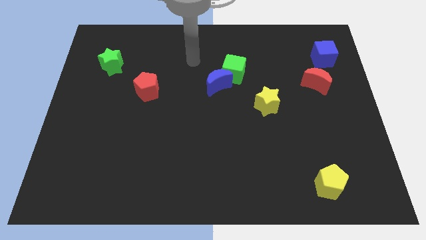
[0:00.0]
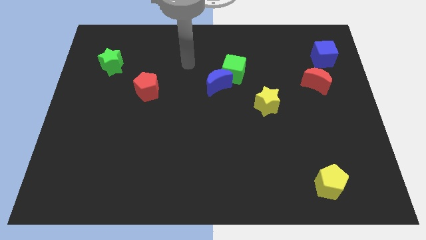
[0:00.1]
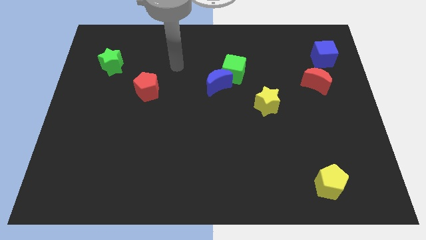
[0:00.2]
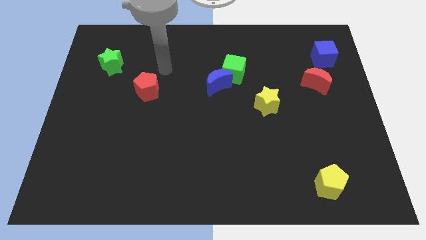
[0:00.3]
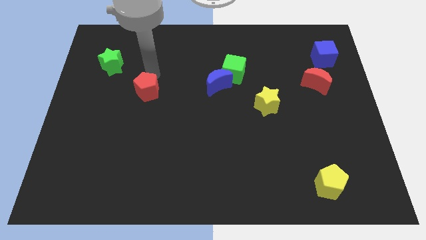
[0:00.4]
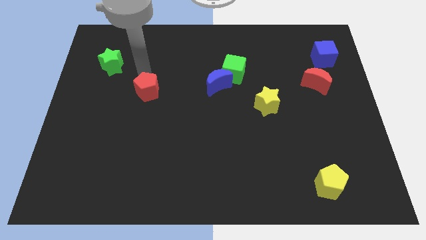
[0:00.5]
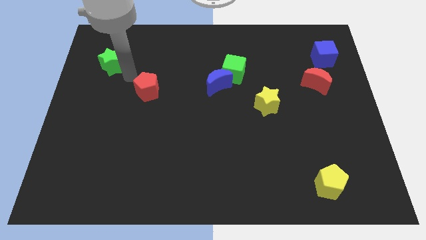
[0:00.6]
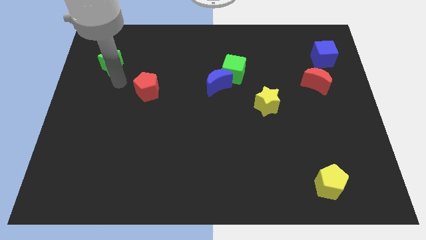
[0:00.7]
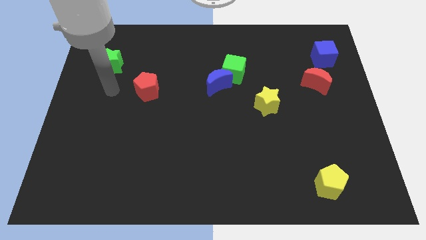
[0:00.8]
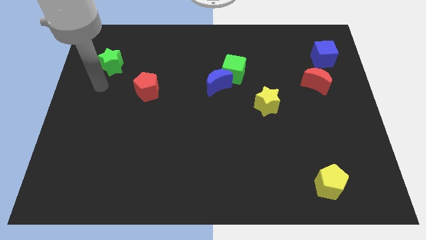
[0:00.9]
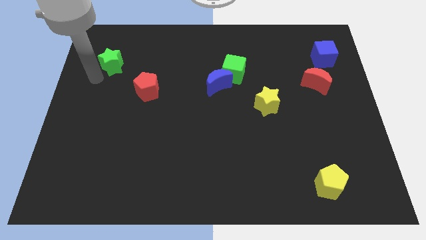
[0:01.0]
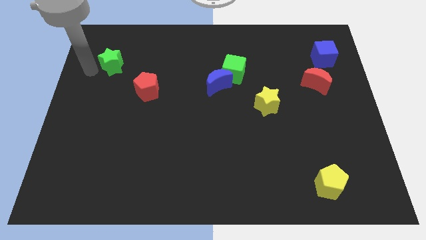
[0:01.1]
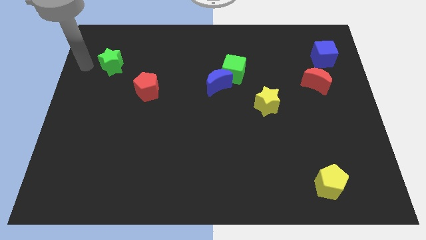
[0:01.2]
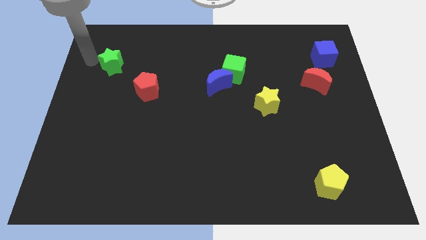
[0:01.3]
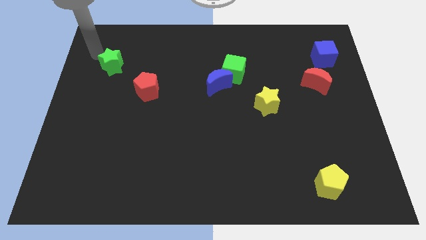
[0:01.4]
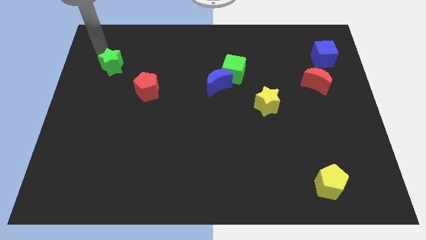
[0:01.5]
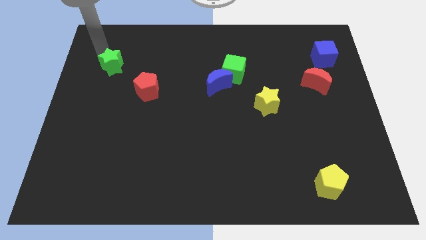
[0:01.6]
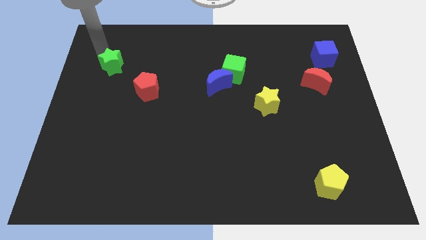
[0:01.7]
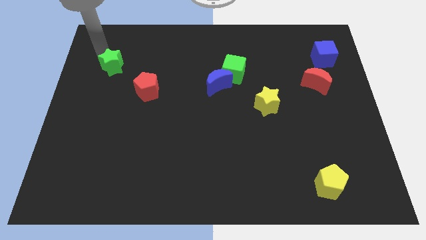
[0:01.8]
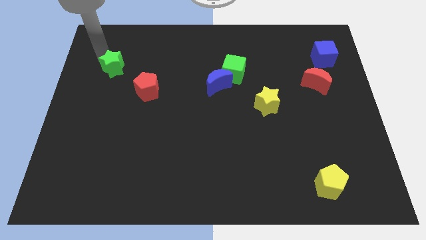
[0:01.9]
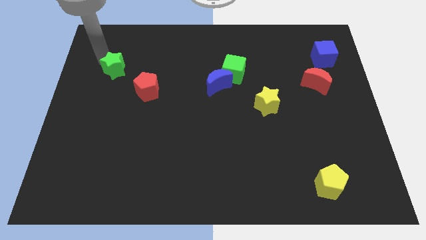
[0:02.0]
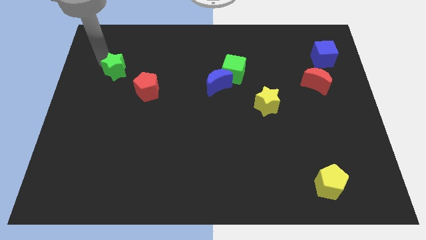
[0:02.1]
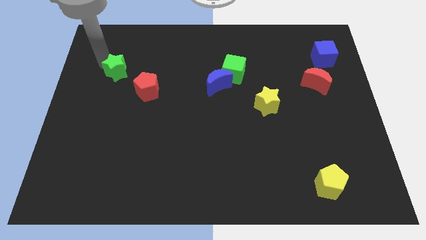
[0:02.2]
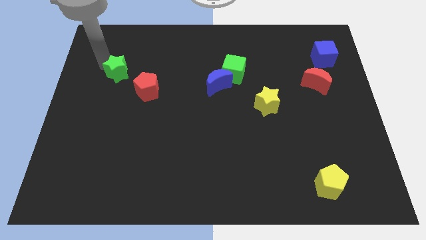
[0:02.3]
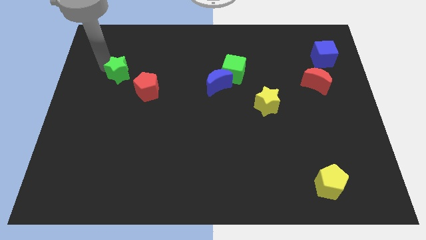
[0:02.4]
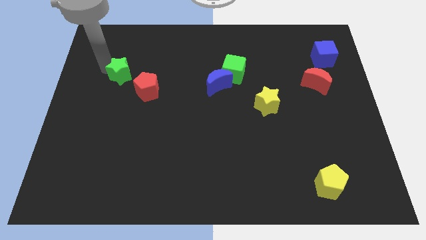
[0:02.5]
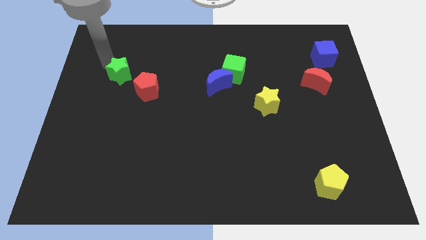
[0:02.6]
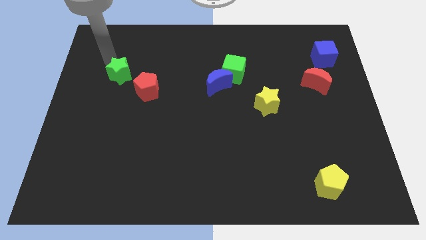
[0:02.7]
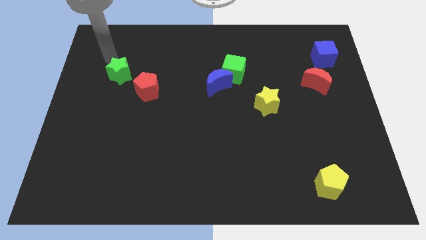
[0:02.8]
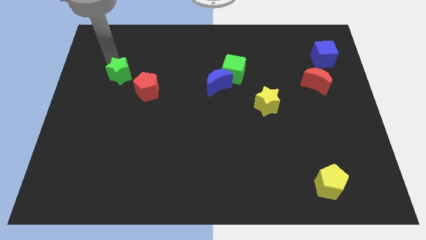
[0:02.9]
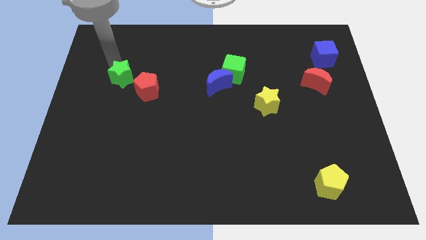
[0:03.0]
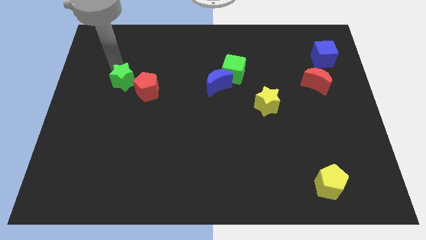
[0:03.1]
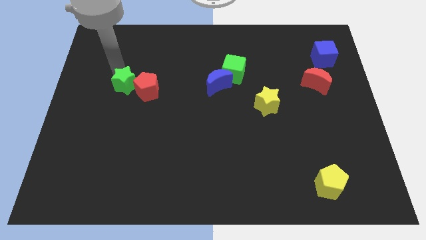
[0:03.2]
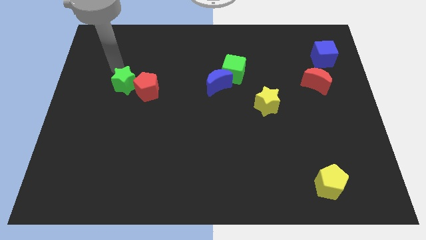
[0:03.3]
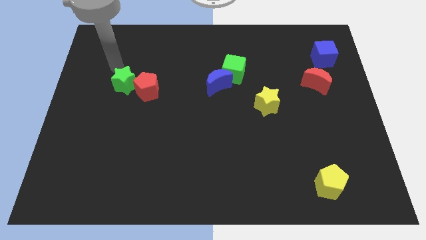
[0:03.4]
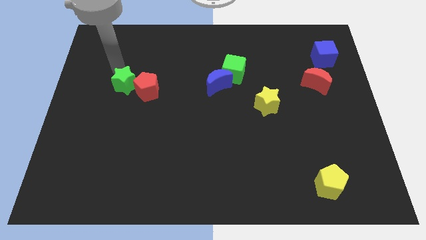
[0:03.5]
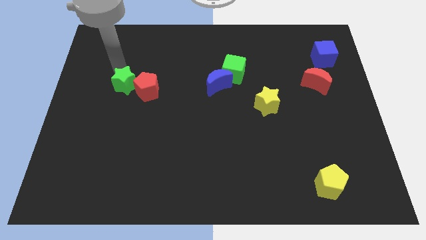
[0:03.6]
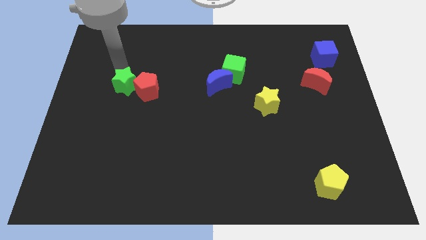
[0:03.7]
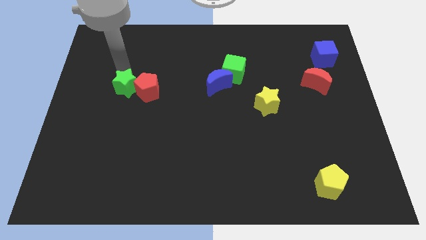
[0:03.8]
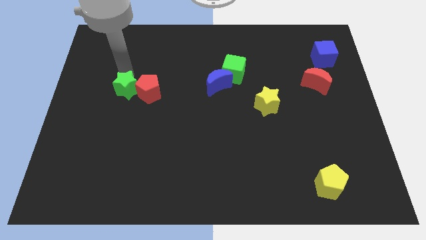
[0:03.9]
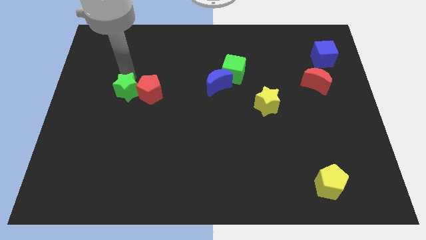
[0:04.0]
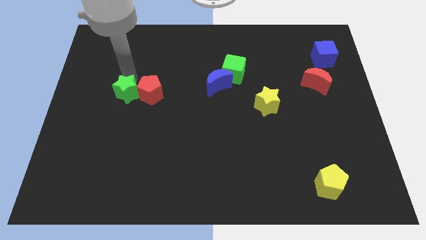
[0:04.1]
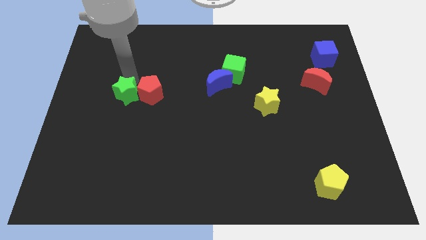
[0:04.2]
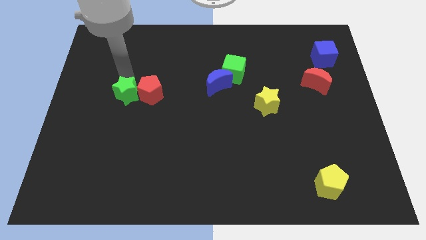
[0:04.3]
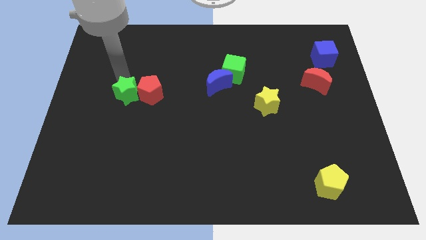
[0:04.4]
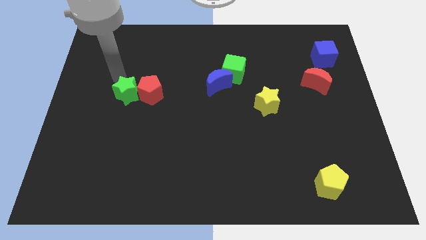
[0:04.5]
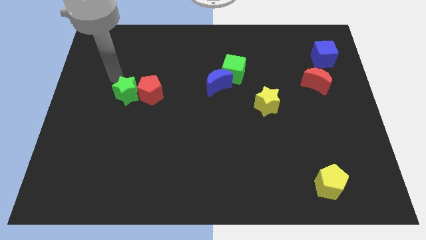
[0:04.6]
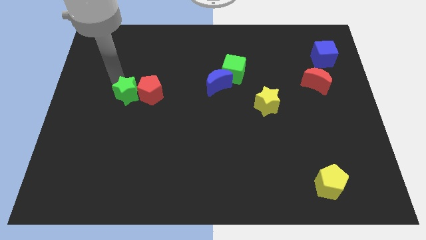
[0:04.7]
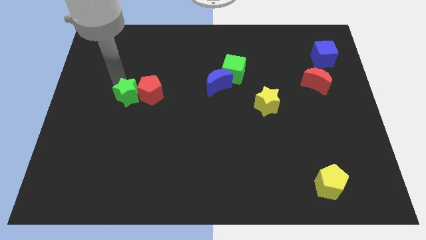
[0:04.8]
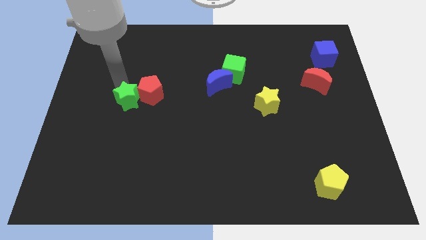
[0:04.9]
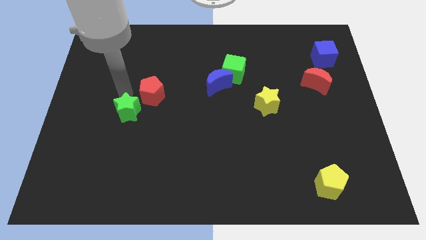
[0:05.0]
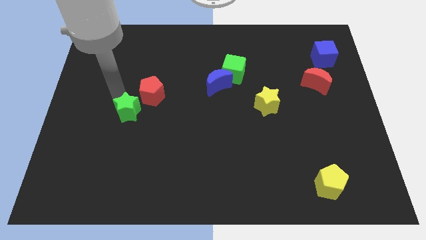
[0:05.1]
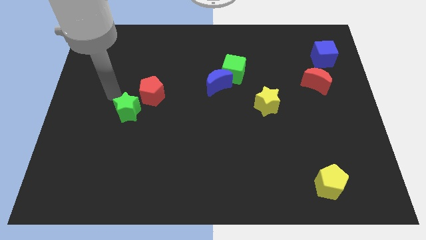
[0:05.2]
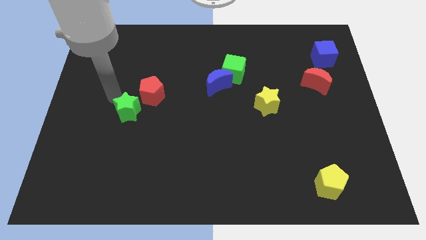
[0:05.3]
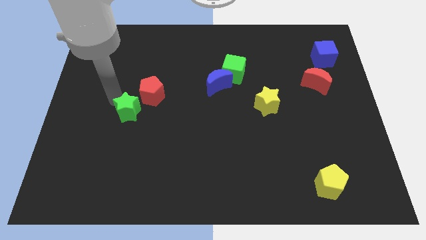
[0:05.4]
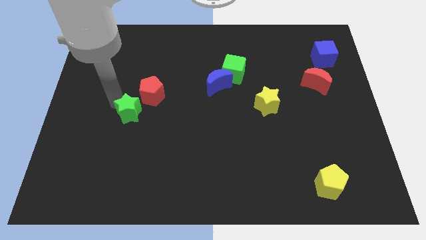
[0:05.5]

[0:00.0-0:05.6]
push the green star to the bottom side of the red pentagon
